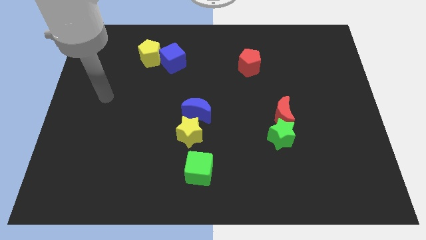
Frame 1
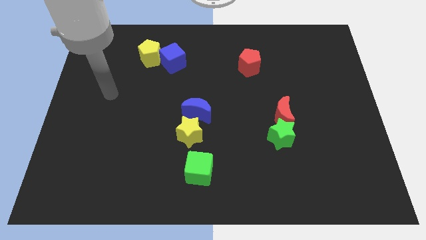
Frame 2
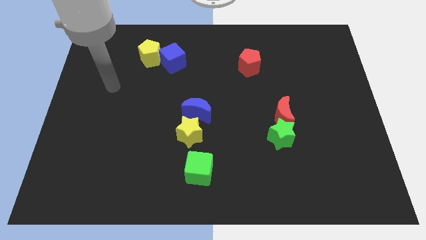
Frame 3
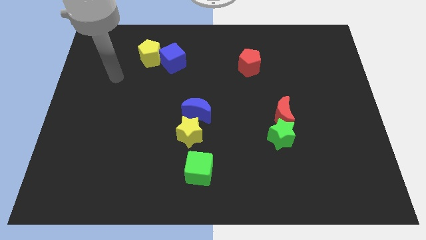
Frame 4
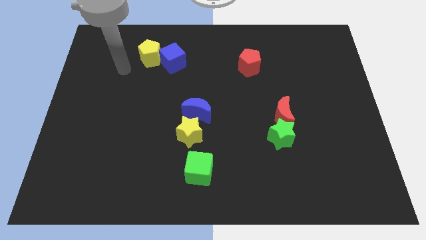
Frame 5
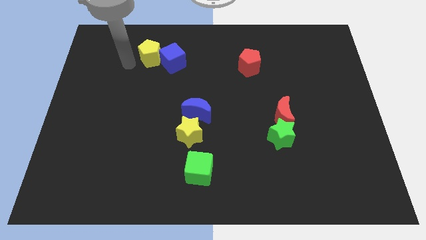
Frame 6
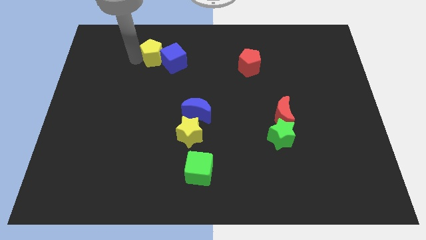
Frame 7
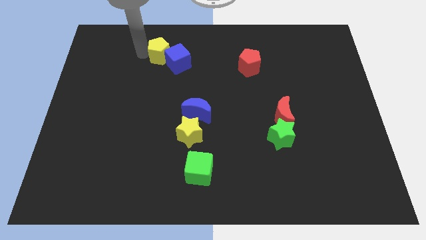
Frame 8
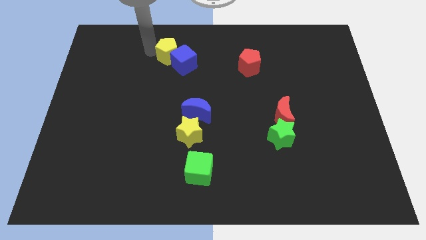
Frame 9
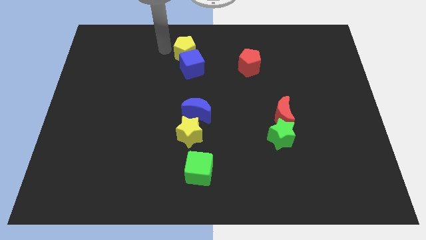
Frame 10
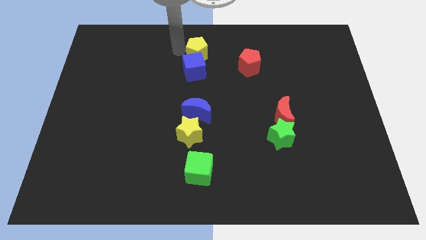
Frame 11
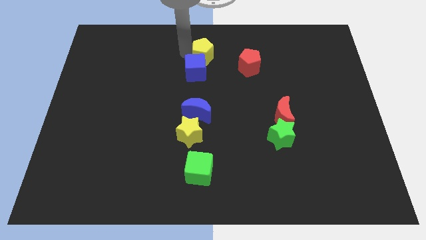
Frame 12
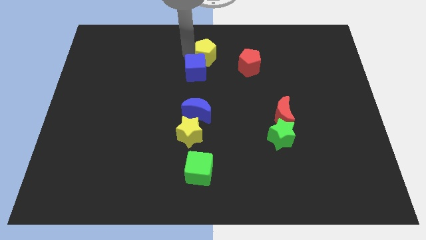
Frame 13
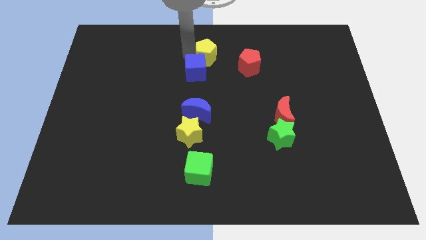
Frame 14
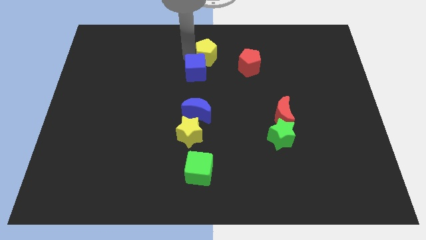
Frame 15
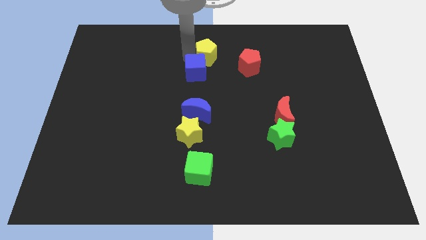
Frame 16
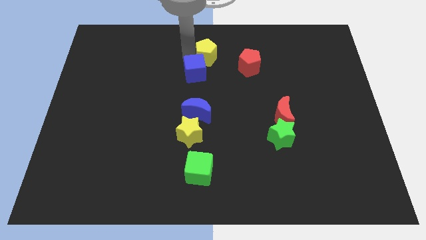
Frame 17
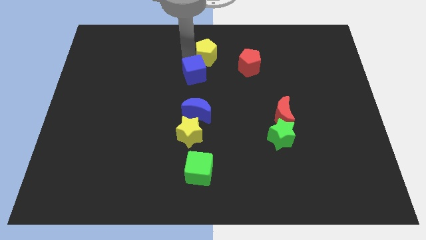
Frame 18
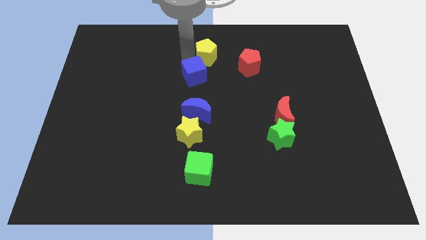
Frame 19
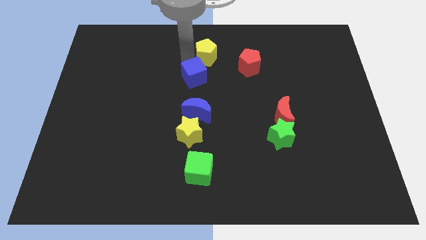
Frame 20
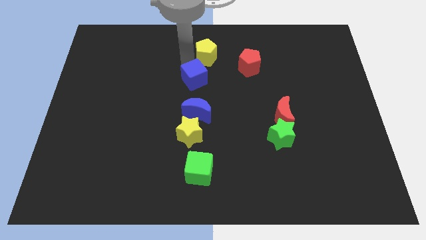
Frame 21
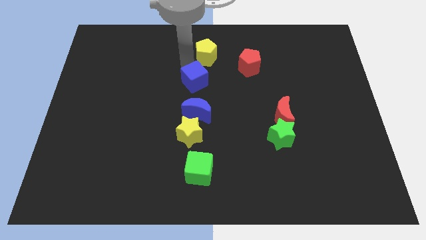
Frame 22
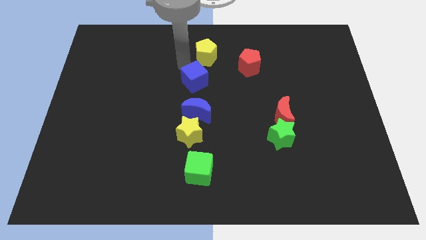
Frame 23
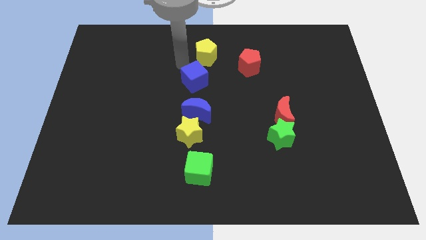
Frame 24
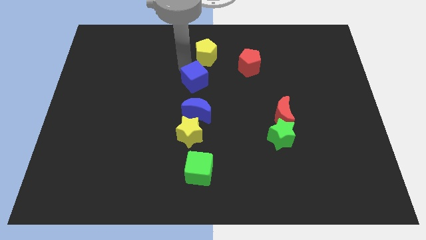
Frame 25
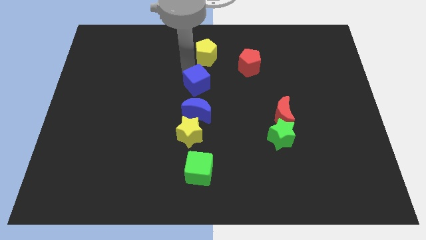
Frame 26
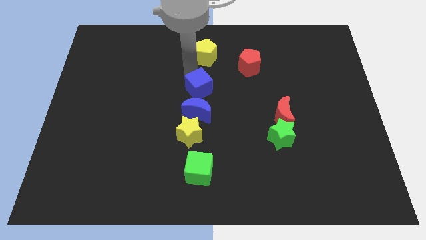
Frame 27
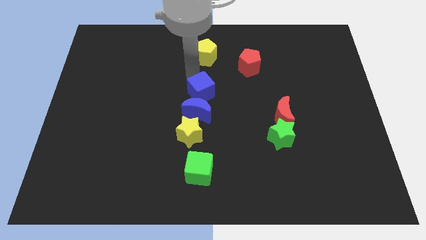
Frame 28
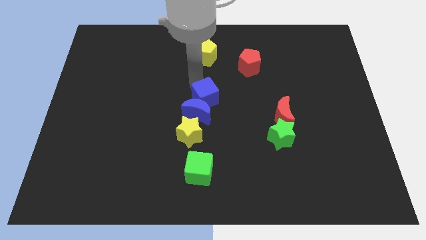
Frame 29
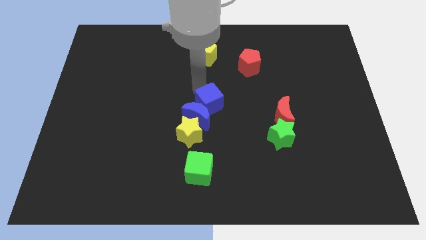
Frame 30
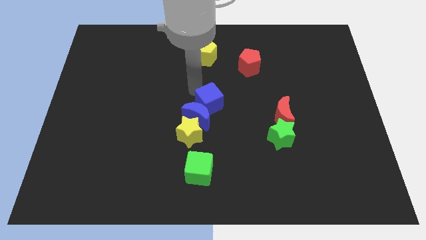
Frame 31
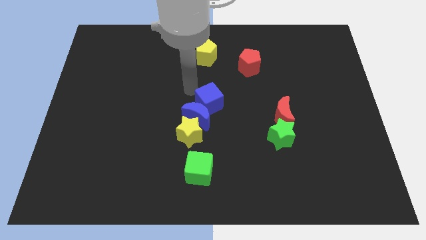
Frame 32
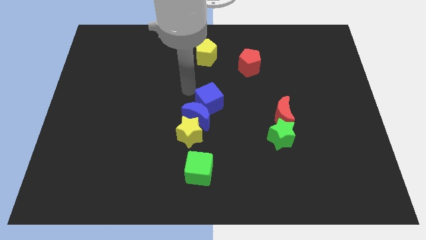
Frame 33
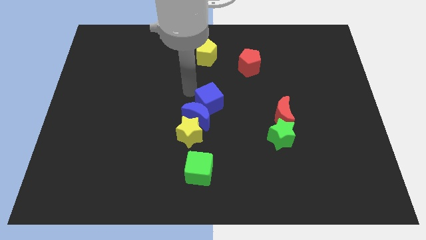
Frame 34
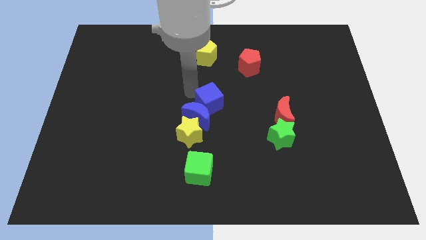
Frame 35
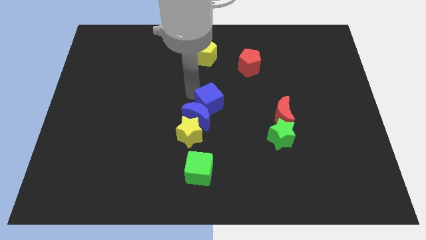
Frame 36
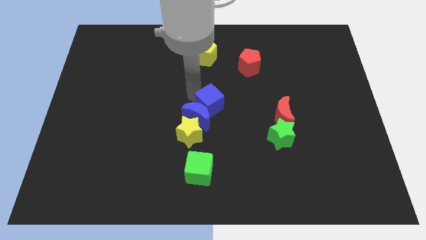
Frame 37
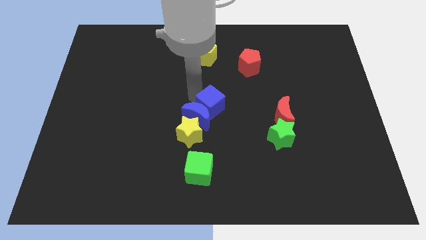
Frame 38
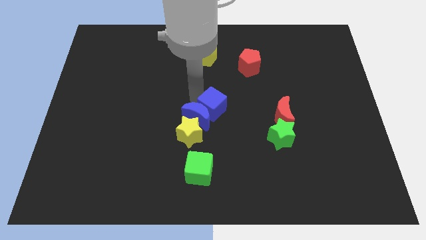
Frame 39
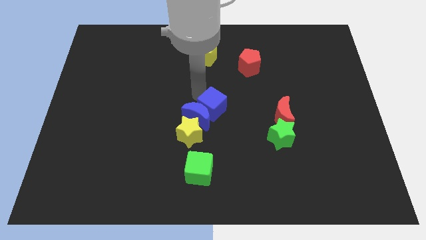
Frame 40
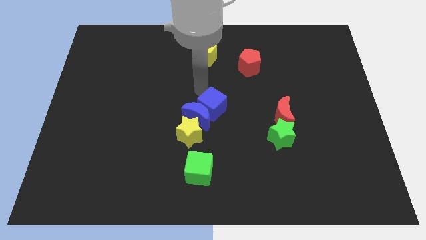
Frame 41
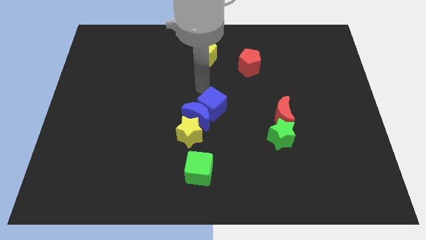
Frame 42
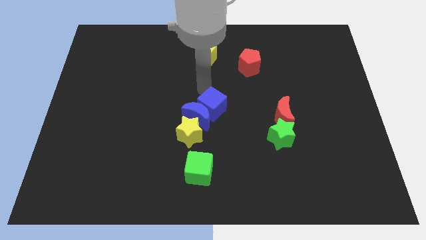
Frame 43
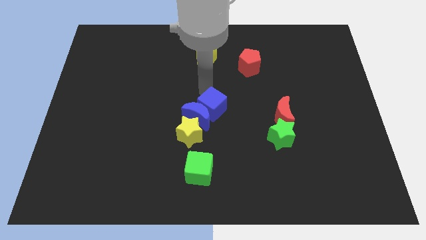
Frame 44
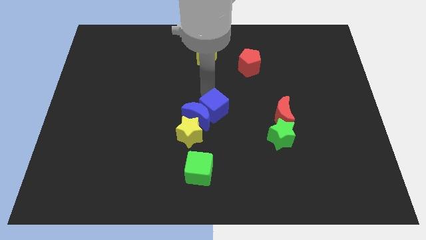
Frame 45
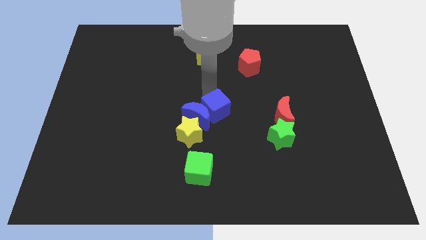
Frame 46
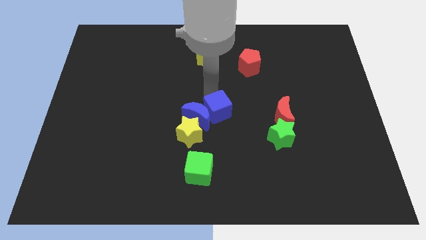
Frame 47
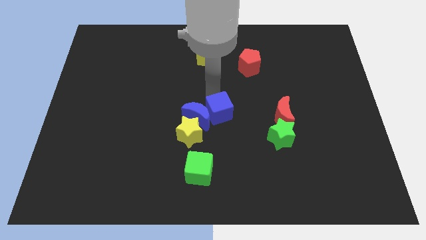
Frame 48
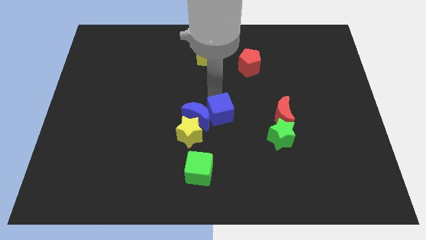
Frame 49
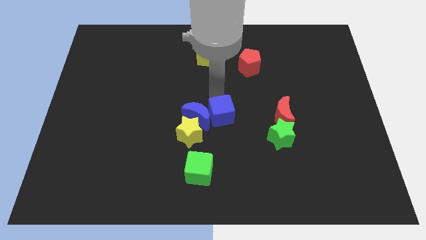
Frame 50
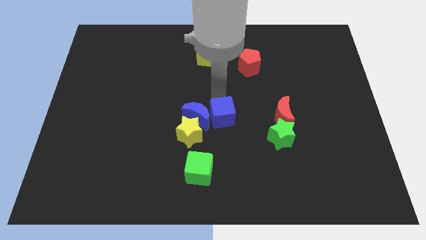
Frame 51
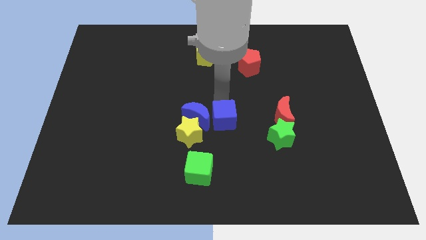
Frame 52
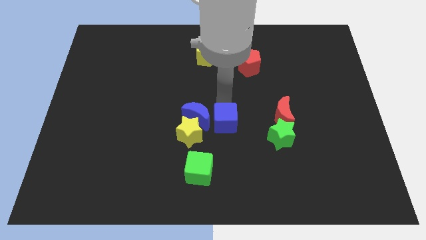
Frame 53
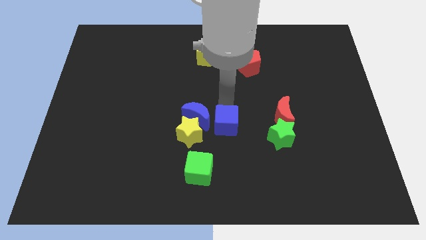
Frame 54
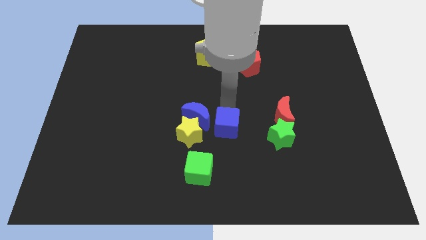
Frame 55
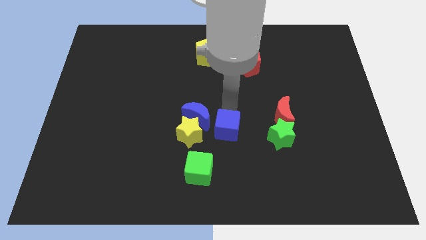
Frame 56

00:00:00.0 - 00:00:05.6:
push the blue cube to the top right side of the green cube

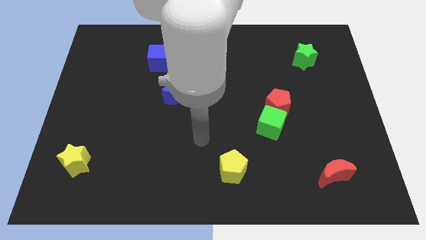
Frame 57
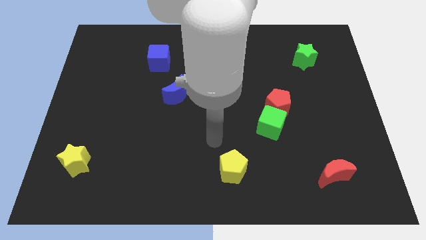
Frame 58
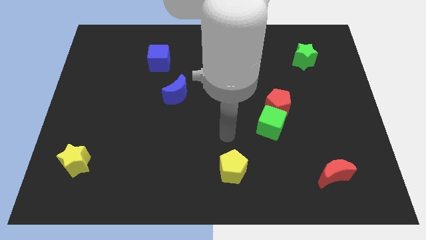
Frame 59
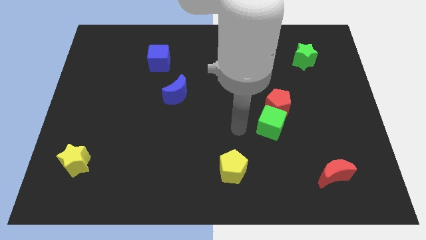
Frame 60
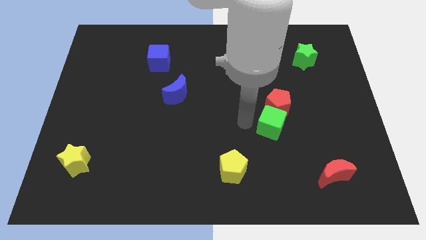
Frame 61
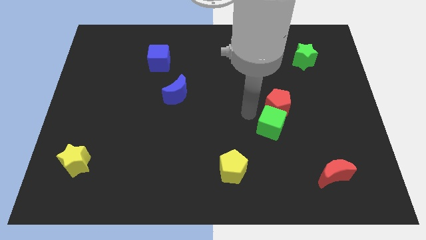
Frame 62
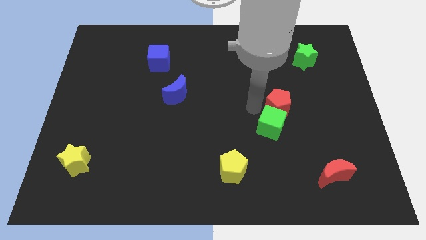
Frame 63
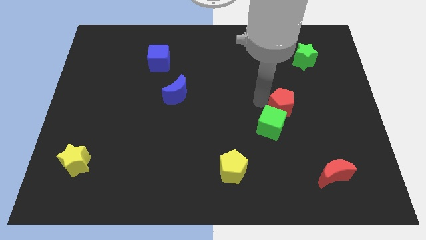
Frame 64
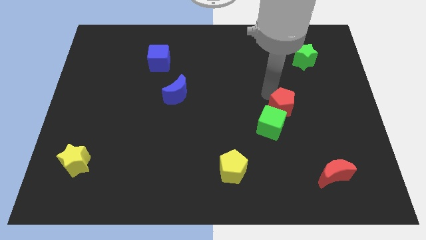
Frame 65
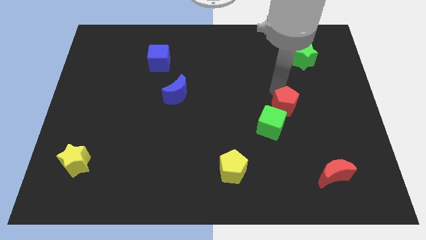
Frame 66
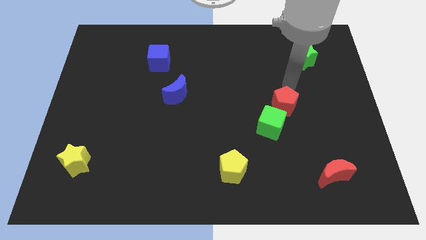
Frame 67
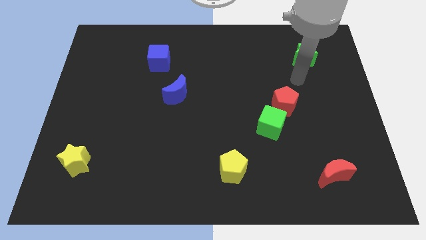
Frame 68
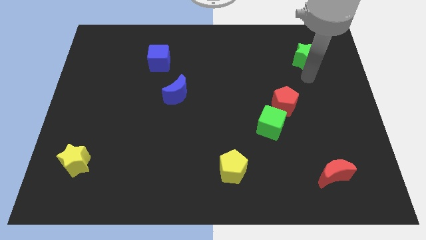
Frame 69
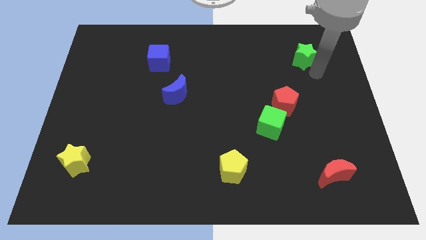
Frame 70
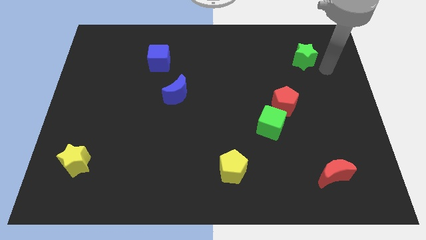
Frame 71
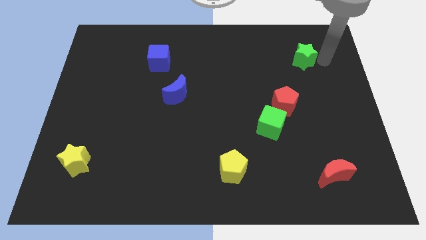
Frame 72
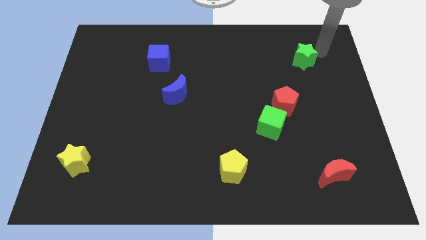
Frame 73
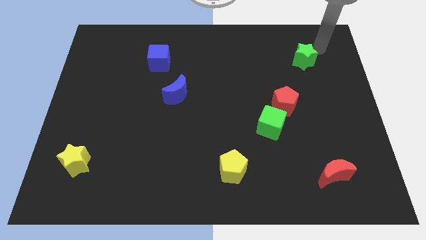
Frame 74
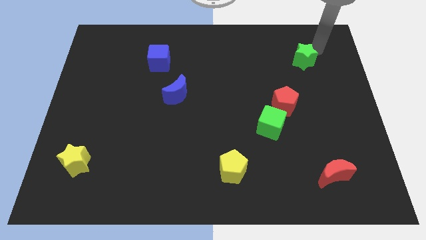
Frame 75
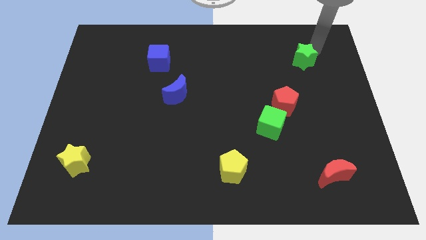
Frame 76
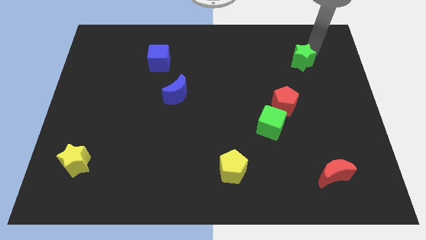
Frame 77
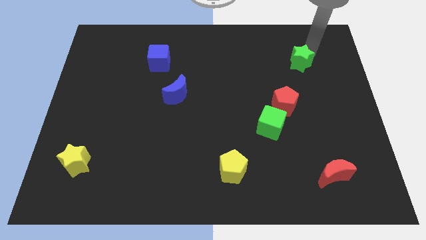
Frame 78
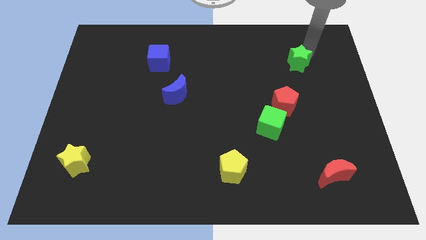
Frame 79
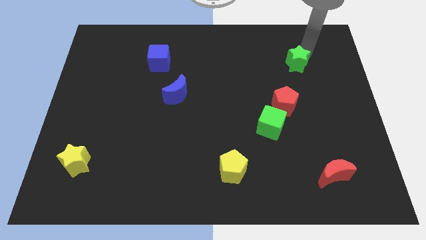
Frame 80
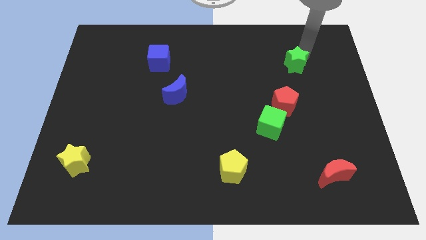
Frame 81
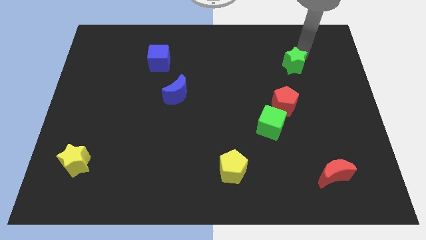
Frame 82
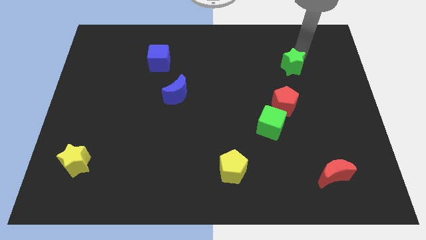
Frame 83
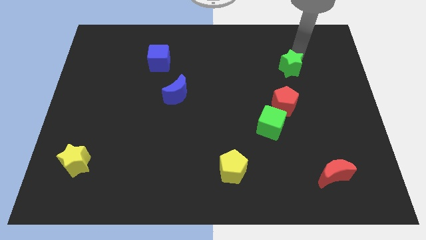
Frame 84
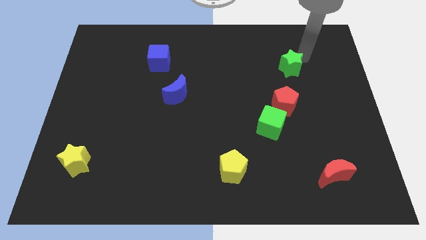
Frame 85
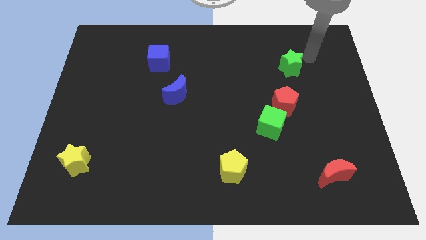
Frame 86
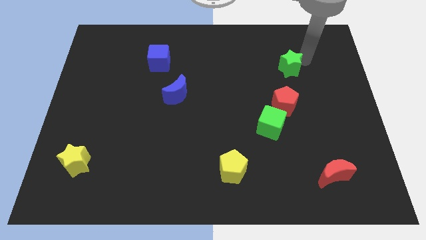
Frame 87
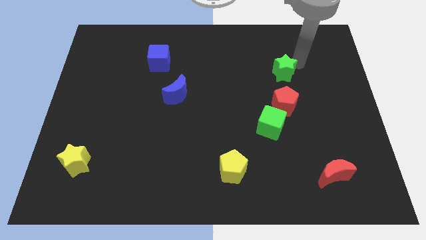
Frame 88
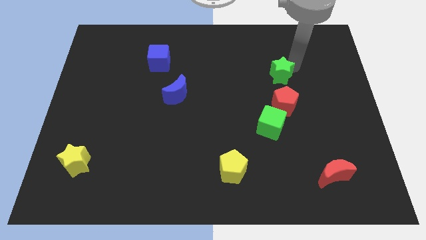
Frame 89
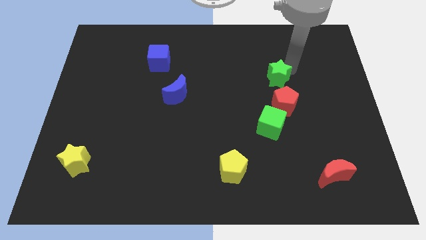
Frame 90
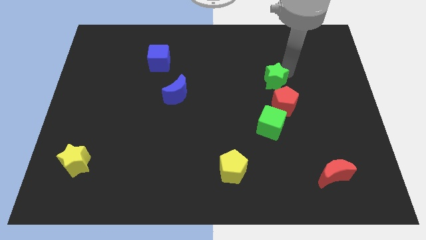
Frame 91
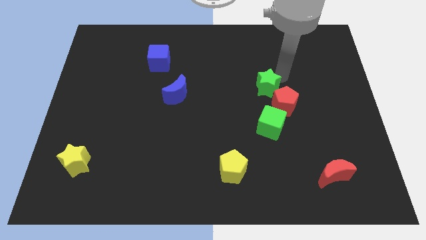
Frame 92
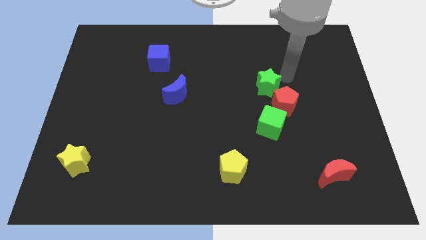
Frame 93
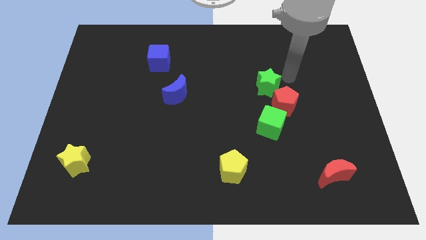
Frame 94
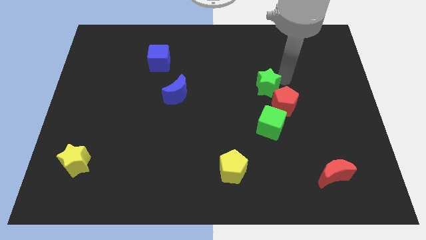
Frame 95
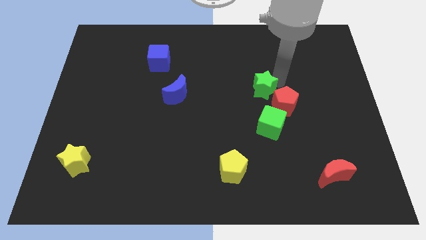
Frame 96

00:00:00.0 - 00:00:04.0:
put the green star just left of the red pentagon
